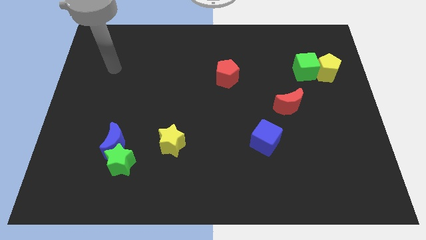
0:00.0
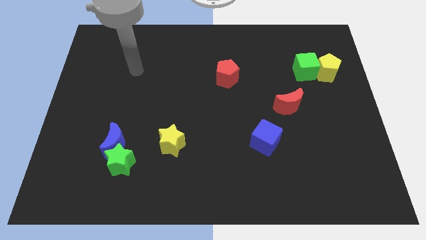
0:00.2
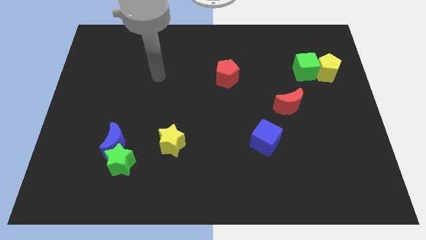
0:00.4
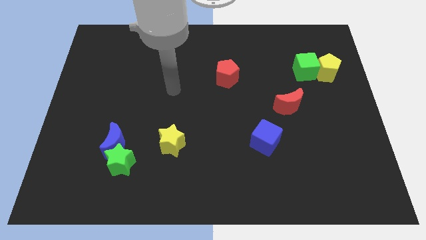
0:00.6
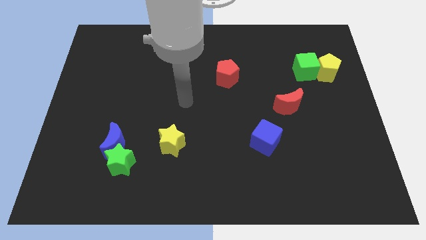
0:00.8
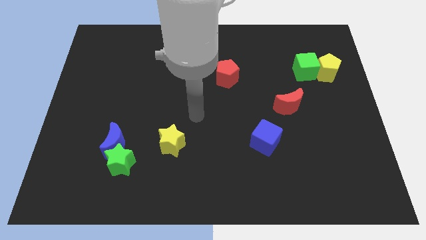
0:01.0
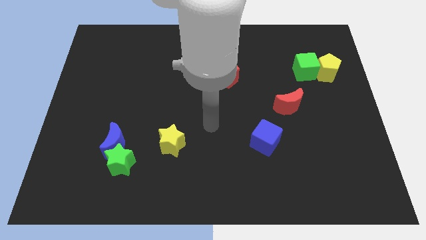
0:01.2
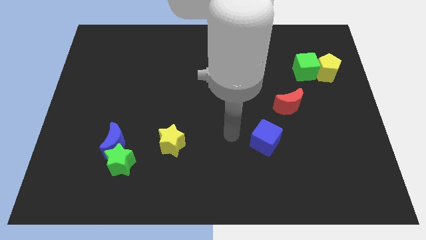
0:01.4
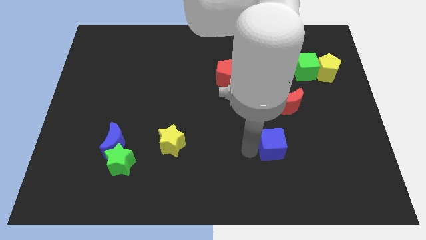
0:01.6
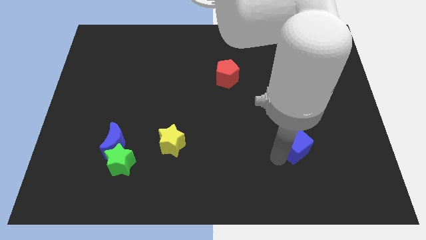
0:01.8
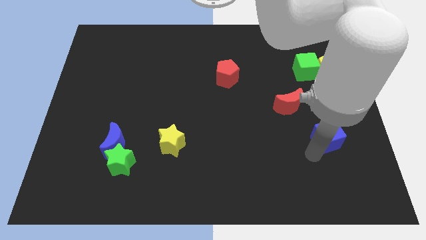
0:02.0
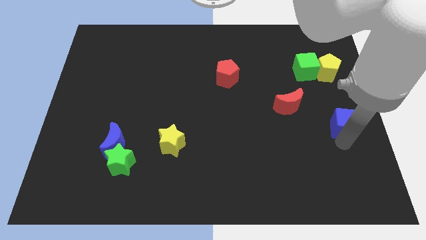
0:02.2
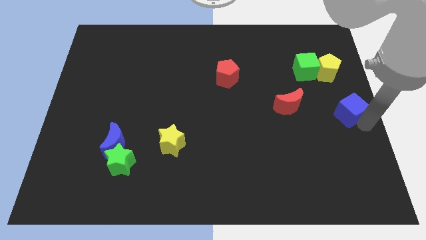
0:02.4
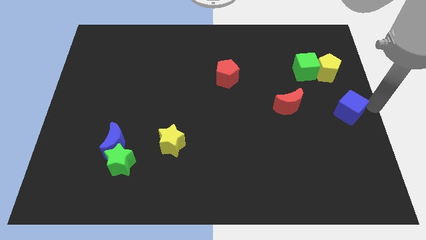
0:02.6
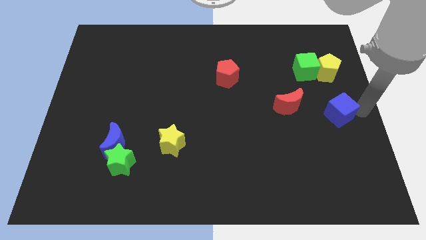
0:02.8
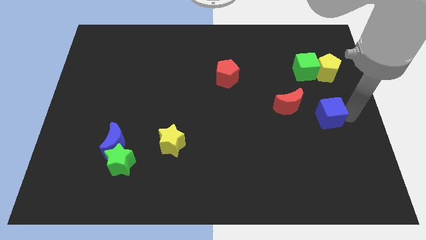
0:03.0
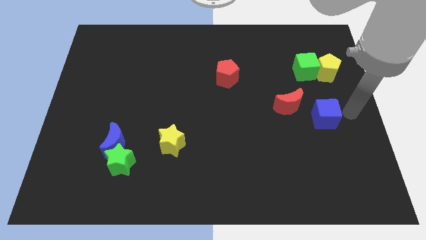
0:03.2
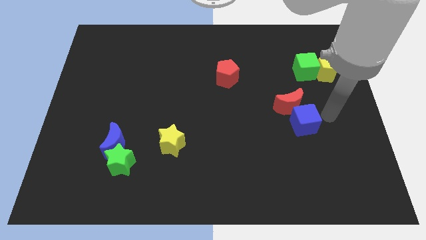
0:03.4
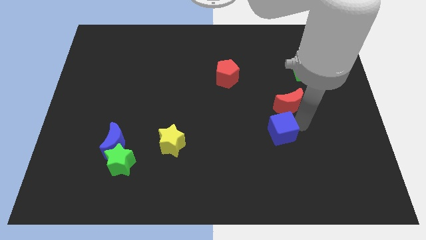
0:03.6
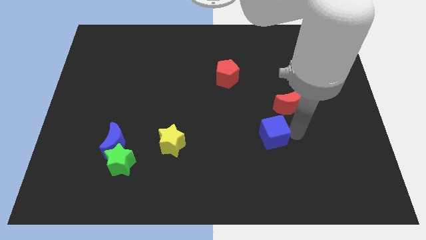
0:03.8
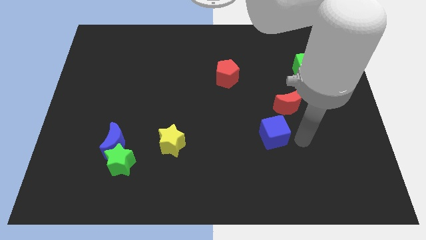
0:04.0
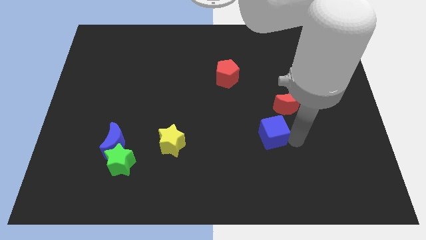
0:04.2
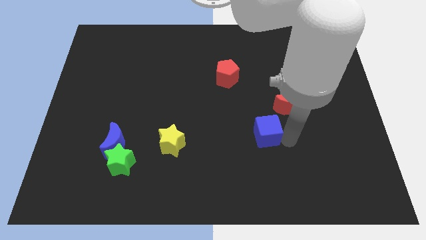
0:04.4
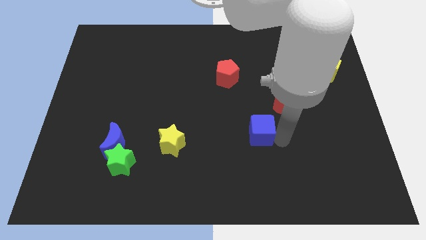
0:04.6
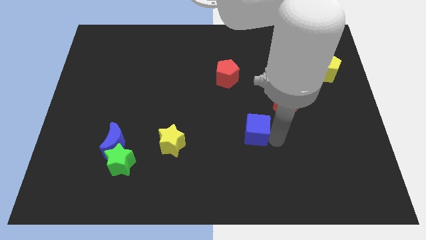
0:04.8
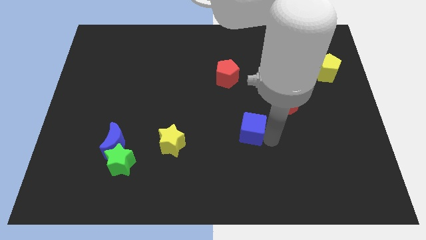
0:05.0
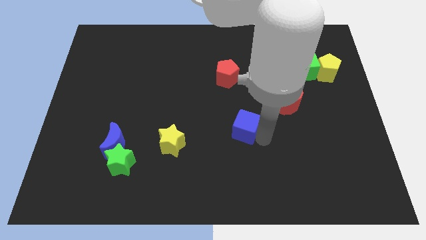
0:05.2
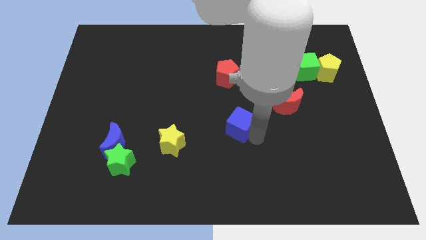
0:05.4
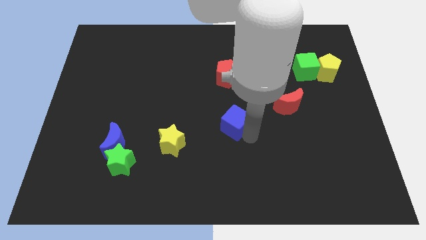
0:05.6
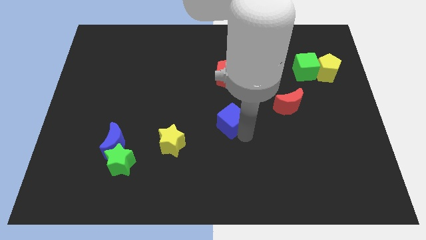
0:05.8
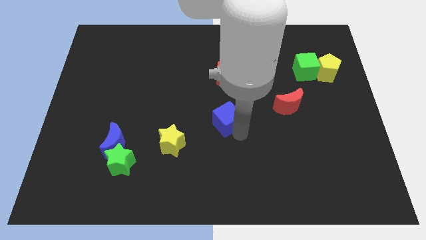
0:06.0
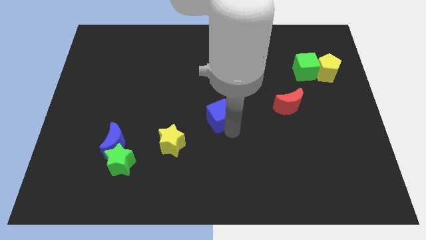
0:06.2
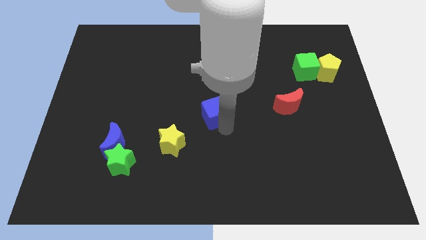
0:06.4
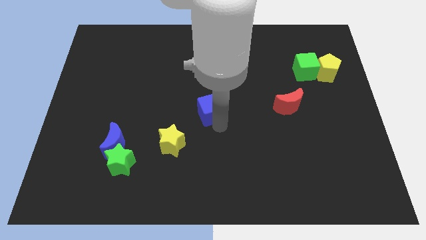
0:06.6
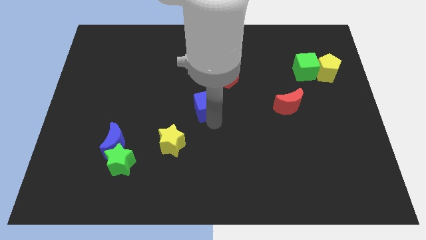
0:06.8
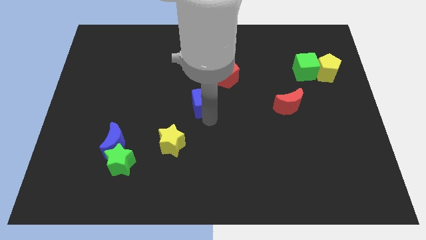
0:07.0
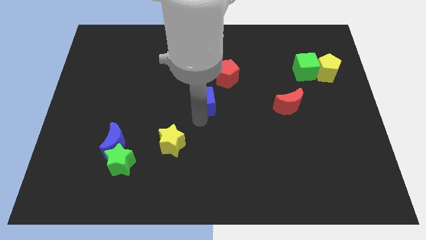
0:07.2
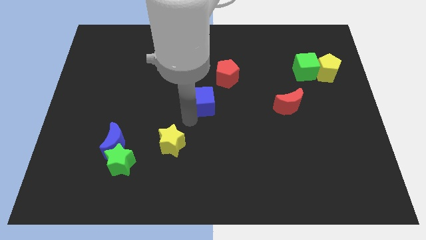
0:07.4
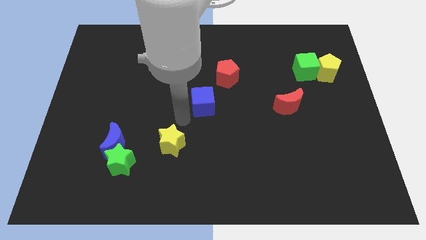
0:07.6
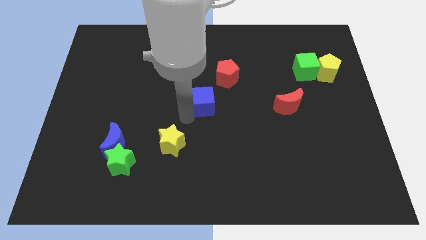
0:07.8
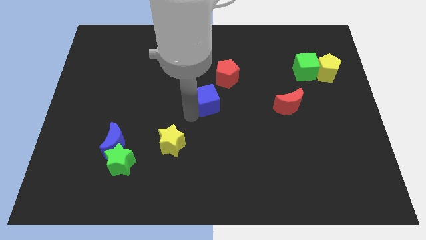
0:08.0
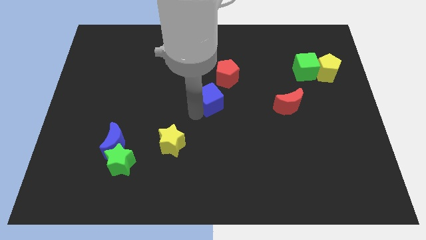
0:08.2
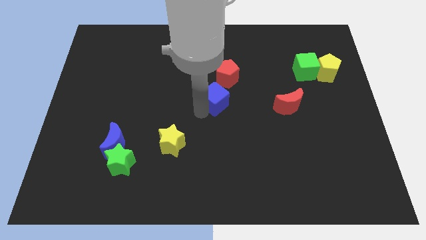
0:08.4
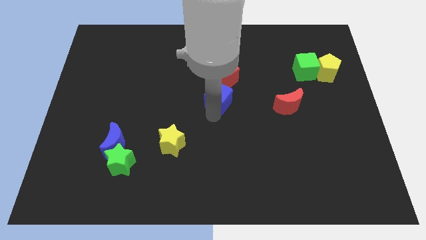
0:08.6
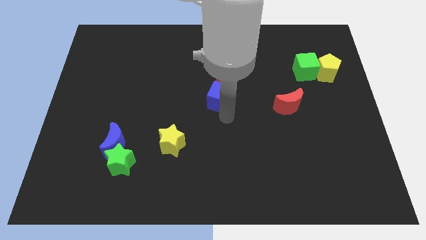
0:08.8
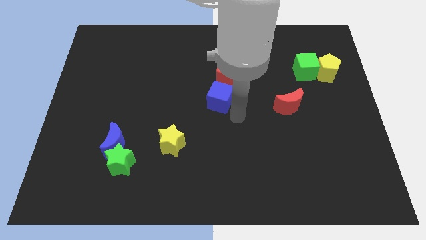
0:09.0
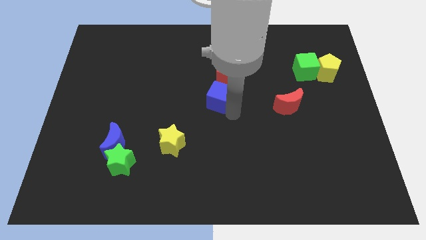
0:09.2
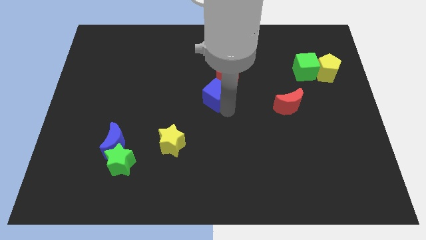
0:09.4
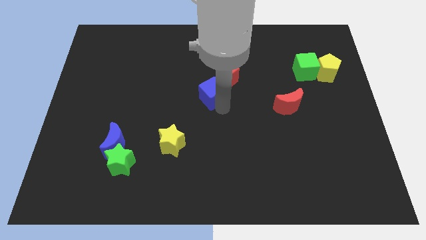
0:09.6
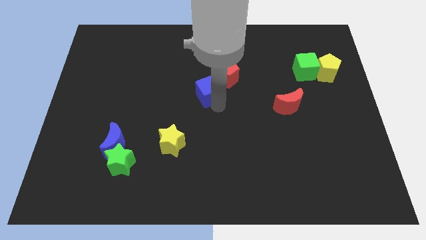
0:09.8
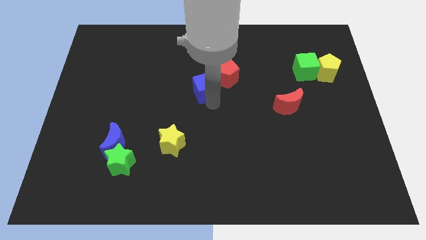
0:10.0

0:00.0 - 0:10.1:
move the blue cube upwards and then to the left

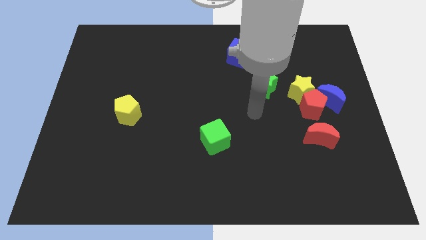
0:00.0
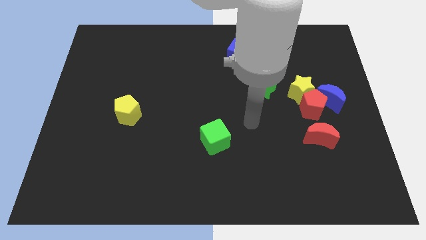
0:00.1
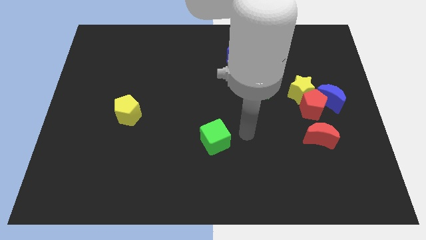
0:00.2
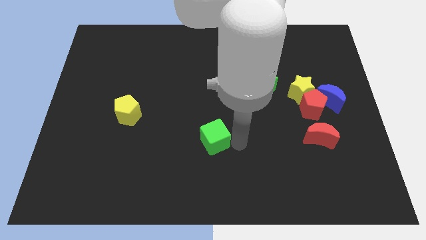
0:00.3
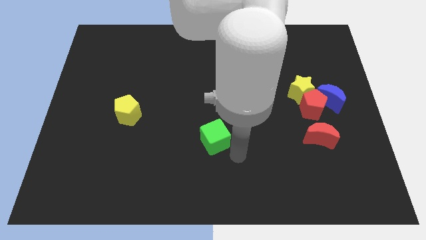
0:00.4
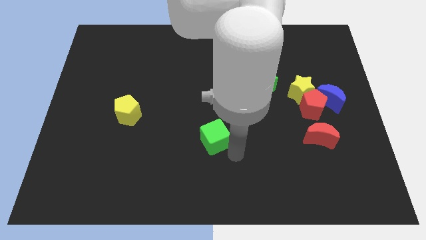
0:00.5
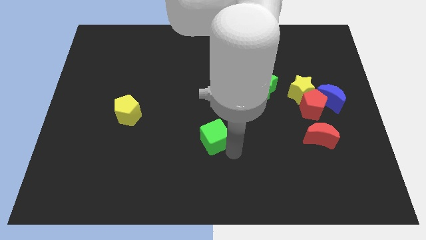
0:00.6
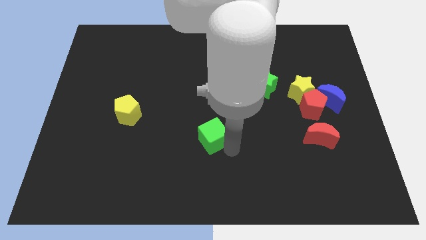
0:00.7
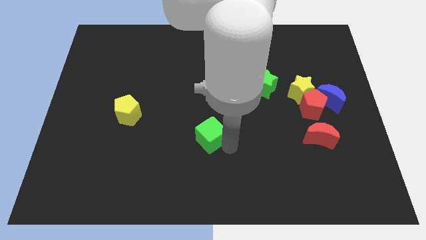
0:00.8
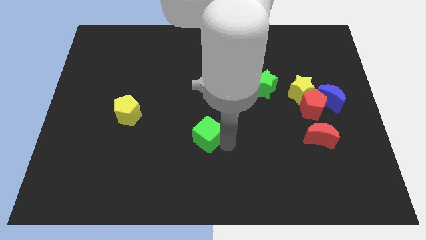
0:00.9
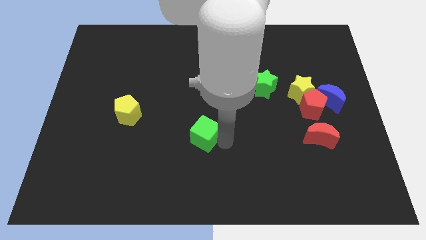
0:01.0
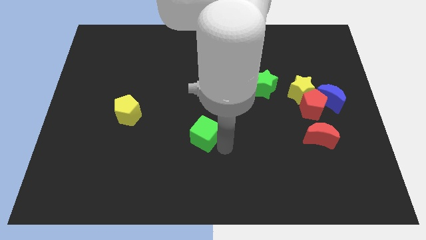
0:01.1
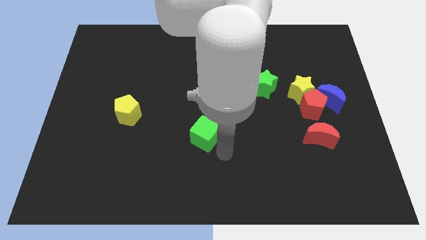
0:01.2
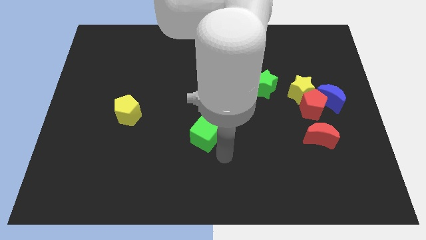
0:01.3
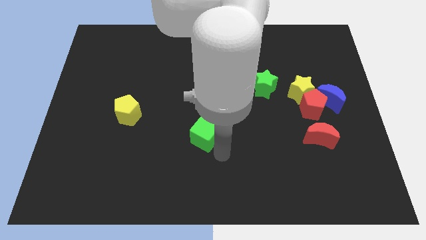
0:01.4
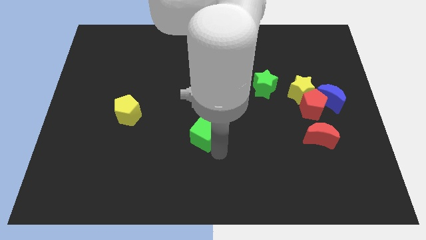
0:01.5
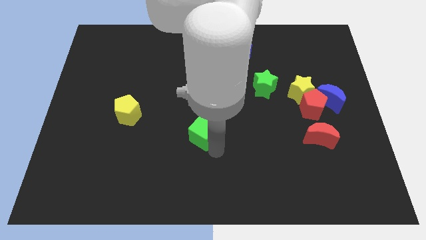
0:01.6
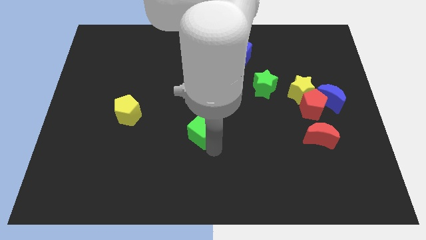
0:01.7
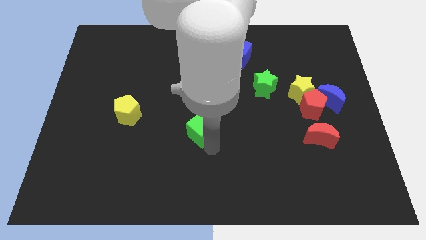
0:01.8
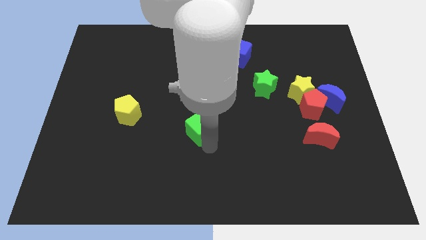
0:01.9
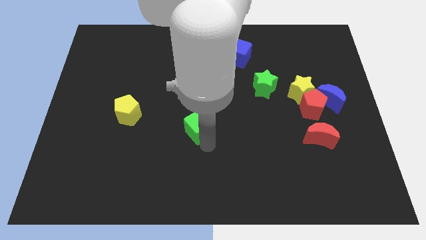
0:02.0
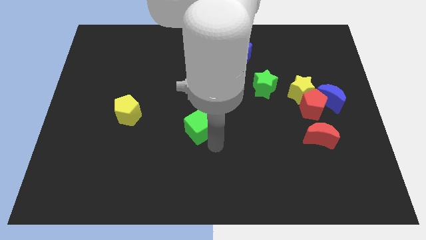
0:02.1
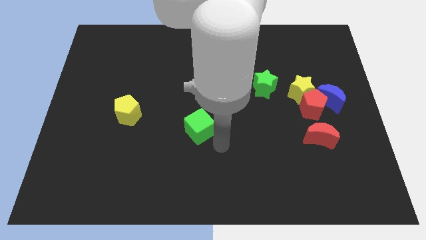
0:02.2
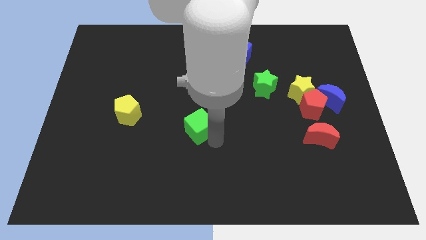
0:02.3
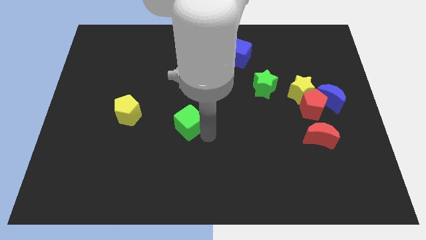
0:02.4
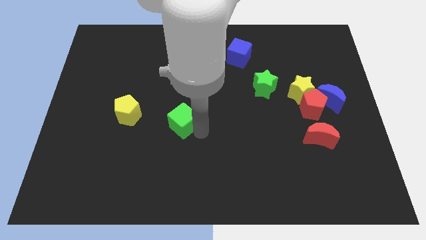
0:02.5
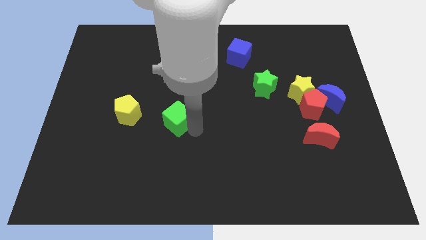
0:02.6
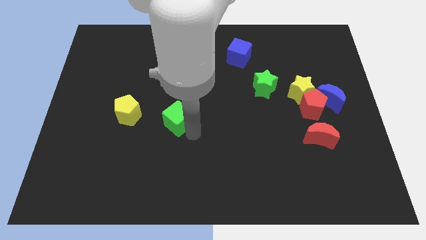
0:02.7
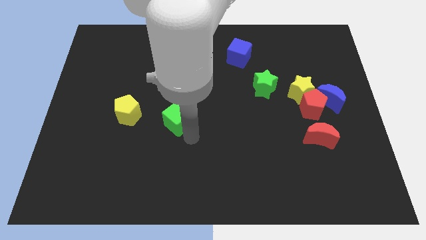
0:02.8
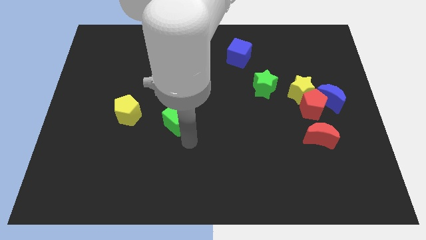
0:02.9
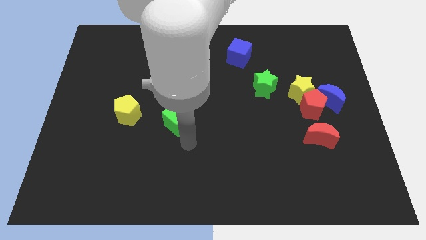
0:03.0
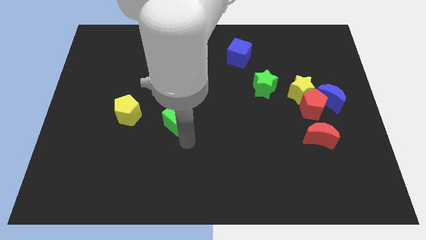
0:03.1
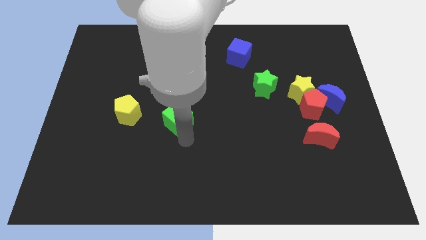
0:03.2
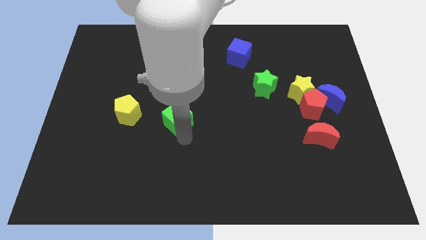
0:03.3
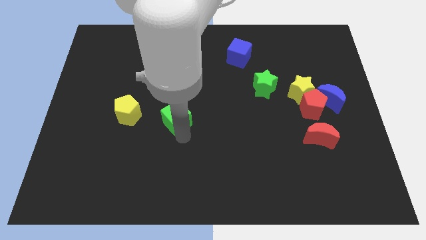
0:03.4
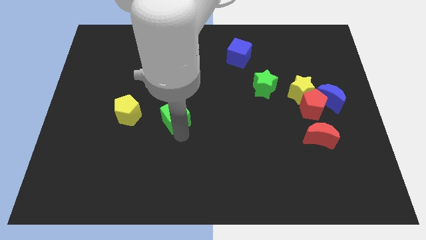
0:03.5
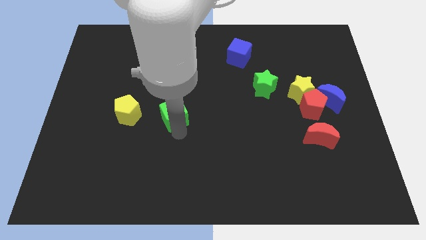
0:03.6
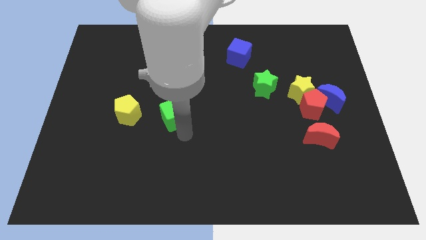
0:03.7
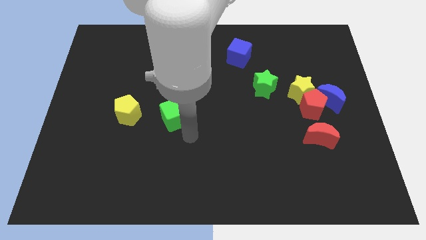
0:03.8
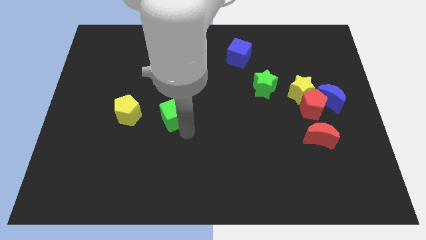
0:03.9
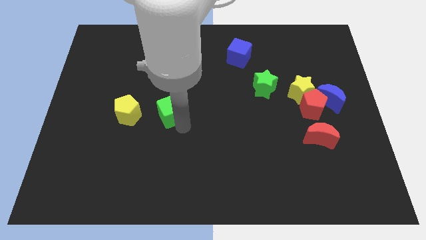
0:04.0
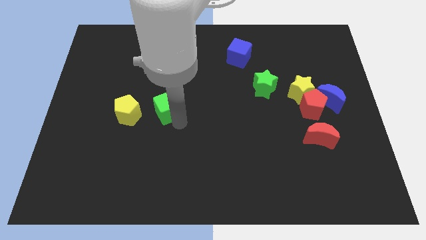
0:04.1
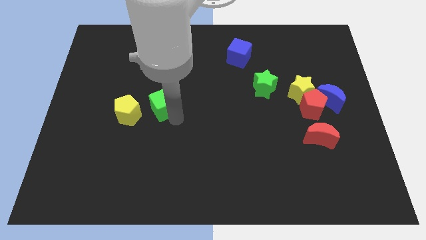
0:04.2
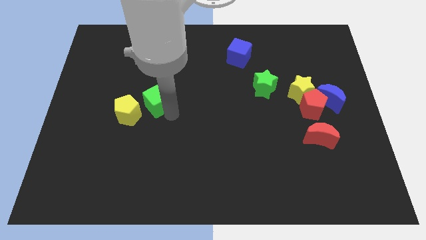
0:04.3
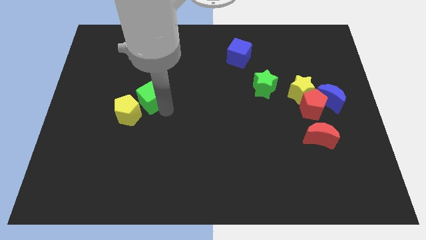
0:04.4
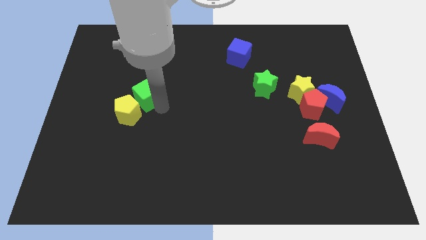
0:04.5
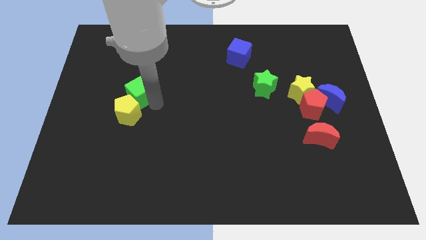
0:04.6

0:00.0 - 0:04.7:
move the green cube up and then left
